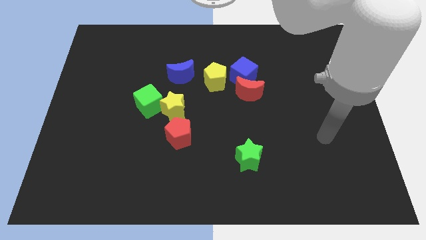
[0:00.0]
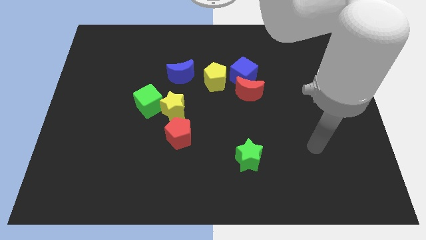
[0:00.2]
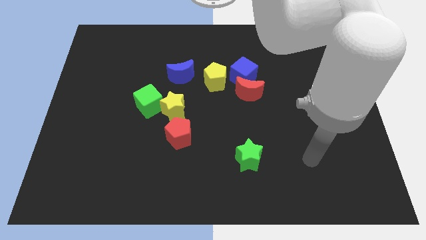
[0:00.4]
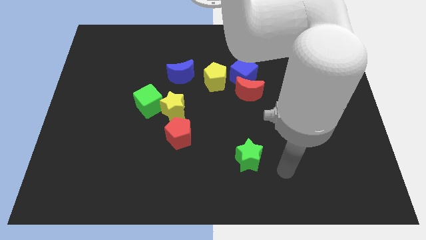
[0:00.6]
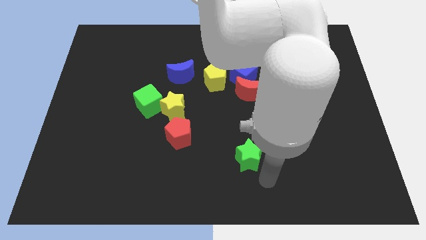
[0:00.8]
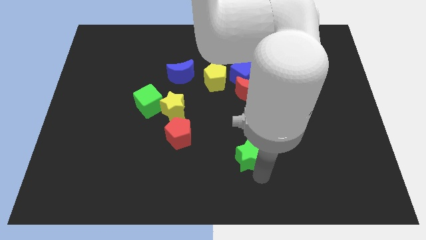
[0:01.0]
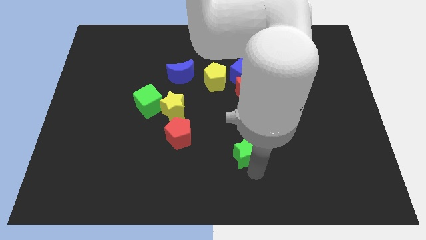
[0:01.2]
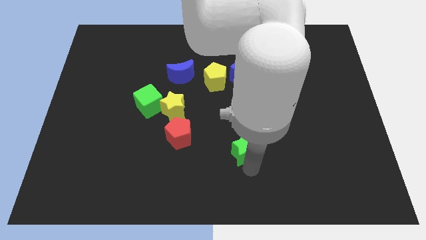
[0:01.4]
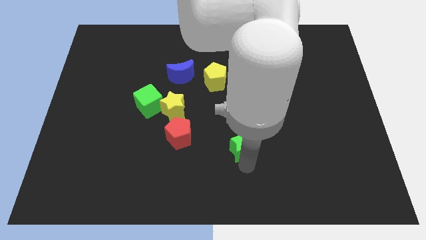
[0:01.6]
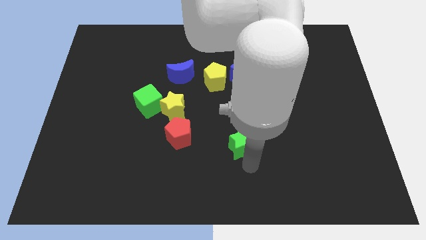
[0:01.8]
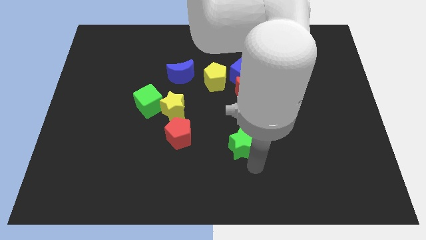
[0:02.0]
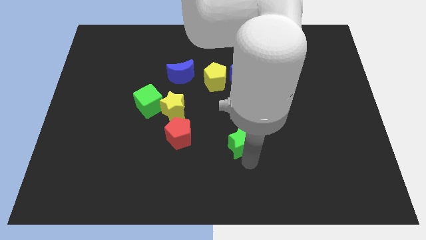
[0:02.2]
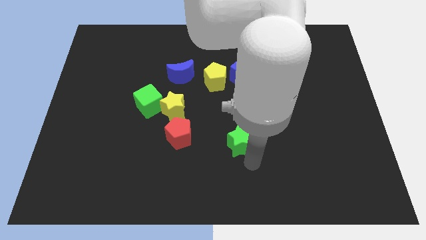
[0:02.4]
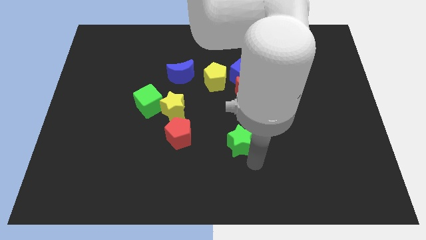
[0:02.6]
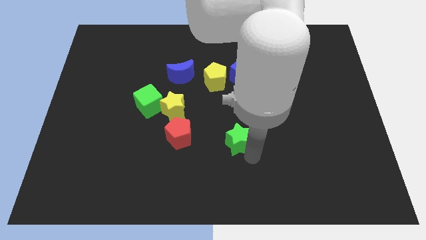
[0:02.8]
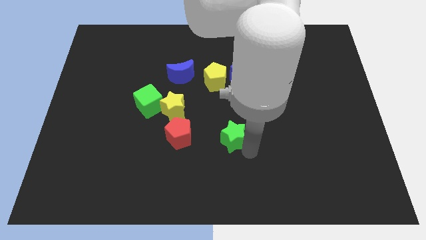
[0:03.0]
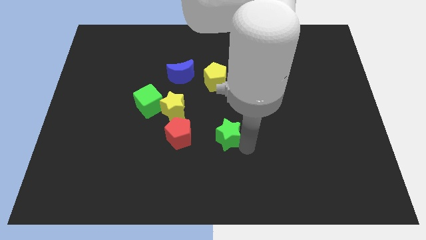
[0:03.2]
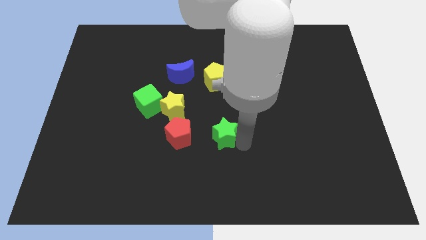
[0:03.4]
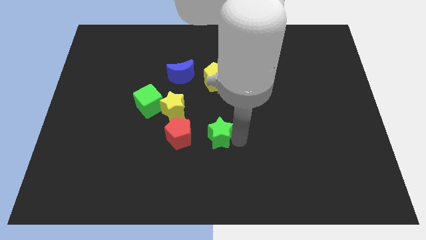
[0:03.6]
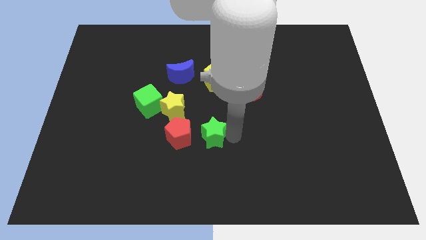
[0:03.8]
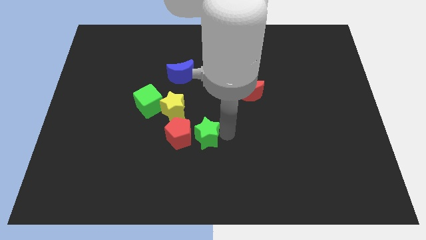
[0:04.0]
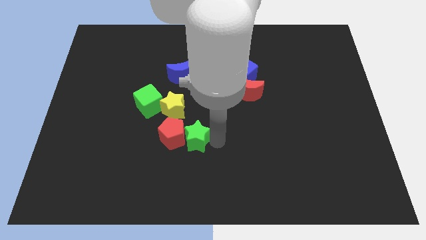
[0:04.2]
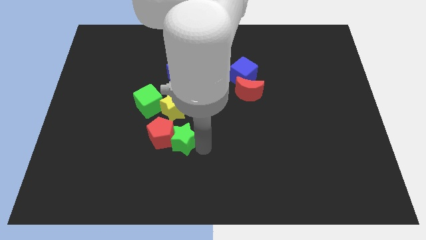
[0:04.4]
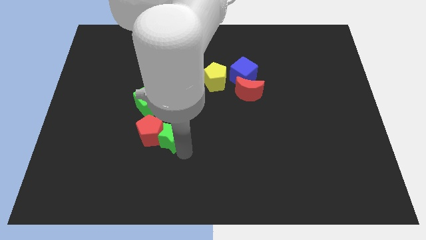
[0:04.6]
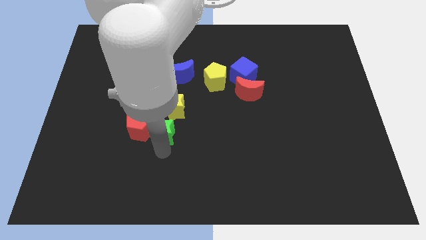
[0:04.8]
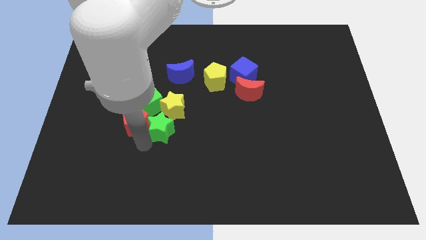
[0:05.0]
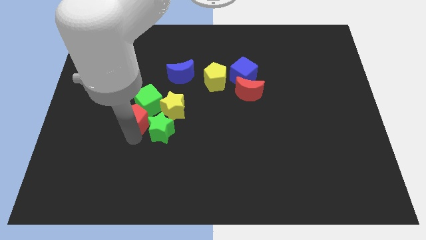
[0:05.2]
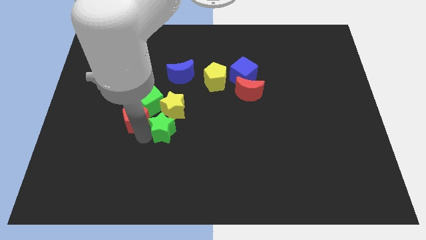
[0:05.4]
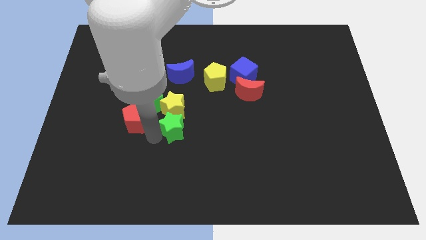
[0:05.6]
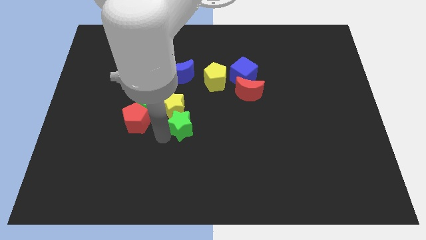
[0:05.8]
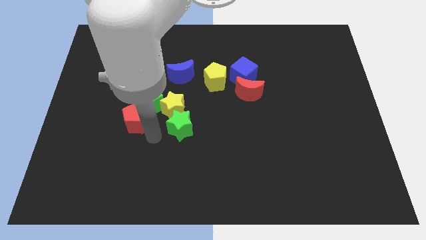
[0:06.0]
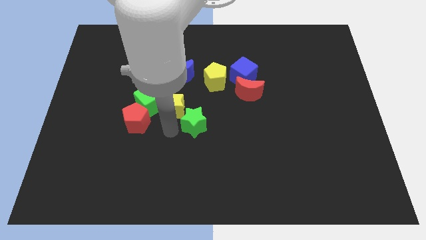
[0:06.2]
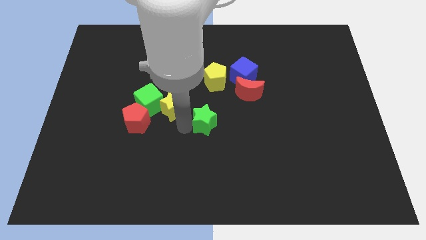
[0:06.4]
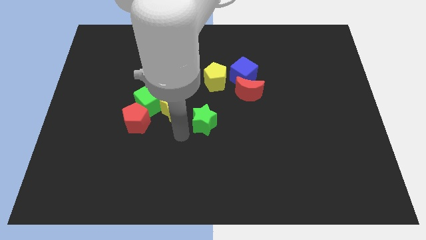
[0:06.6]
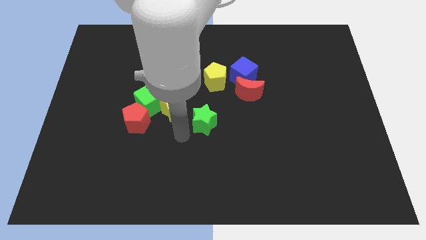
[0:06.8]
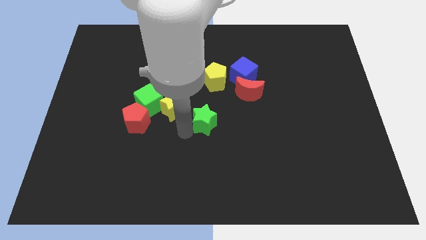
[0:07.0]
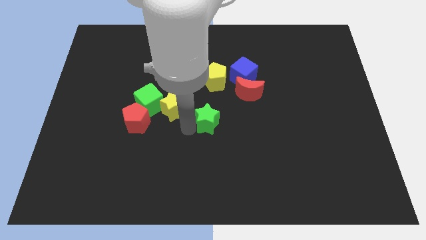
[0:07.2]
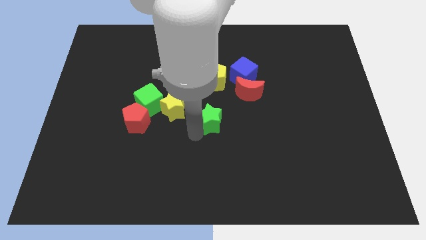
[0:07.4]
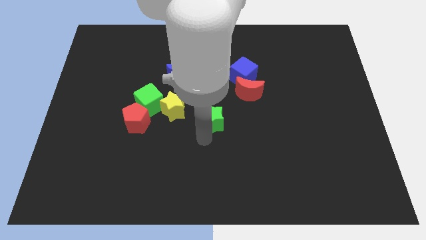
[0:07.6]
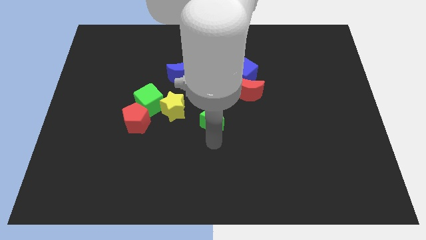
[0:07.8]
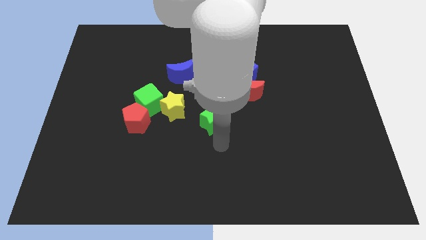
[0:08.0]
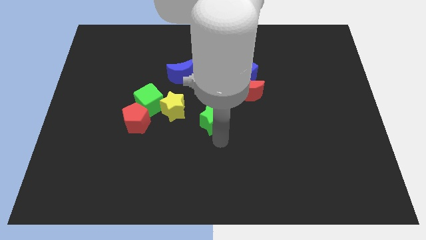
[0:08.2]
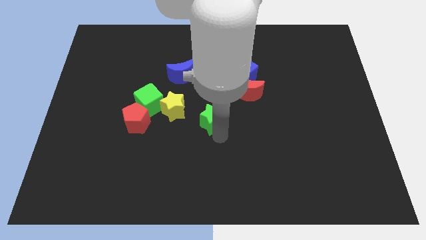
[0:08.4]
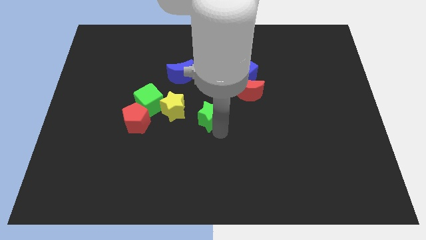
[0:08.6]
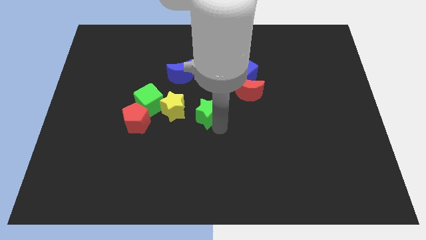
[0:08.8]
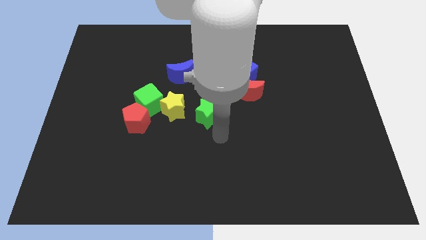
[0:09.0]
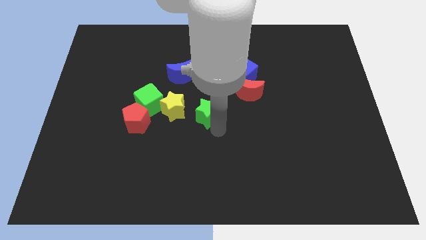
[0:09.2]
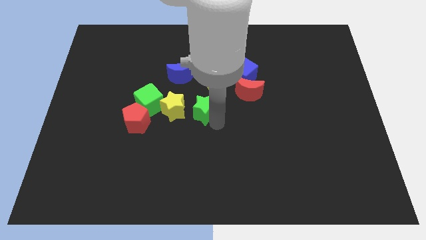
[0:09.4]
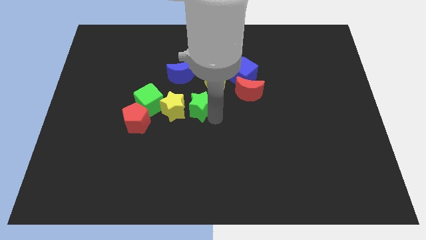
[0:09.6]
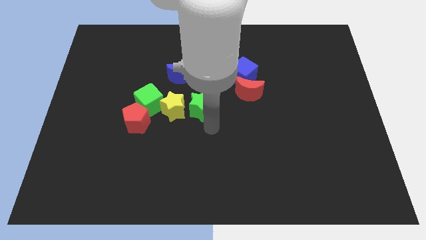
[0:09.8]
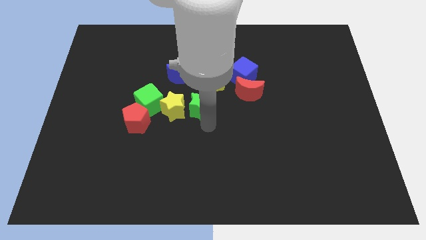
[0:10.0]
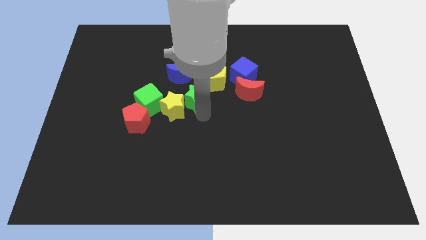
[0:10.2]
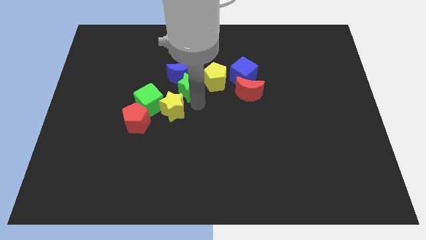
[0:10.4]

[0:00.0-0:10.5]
move the green star close to the blue moon

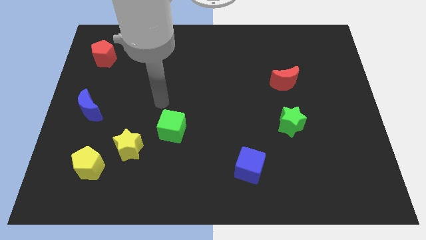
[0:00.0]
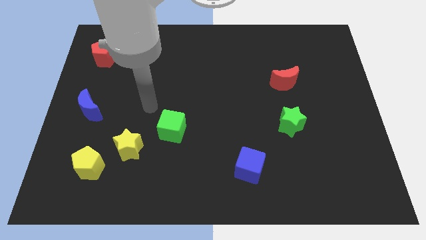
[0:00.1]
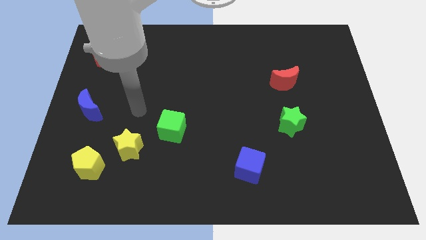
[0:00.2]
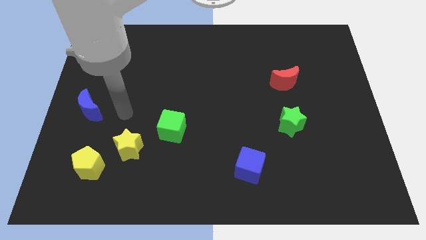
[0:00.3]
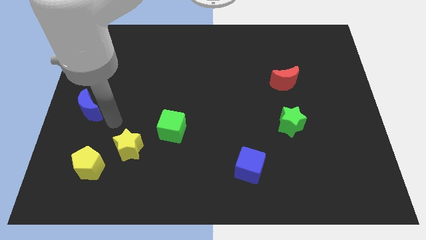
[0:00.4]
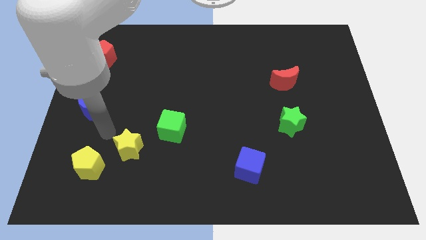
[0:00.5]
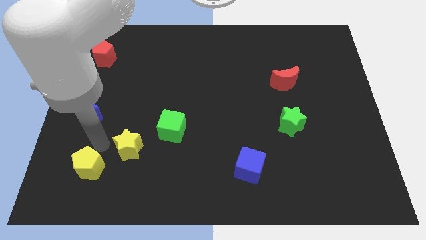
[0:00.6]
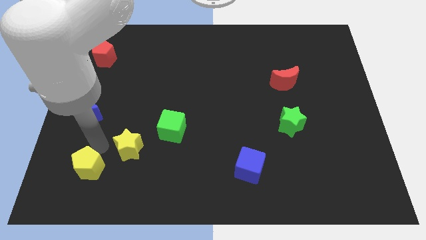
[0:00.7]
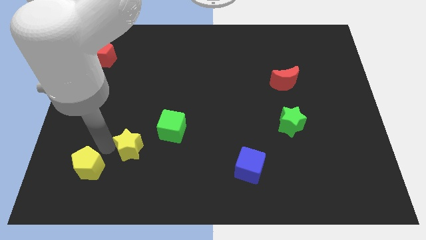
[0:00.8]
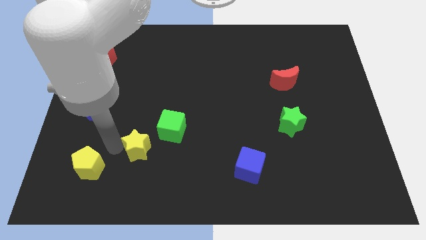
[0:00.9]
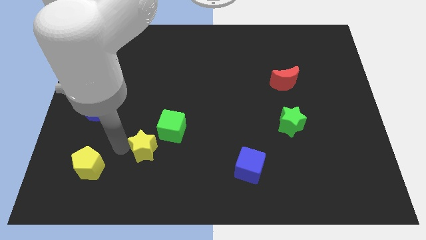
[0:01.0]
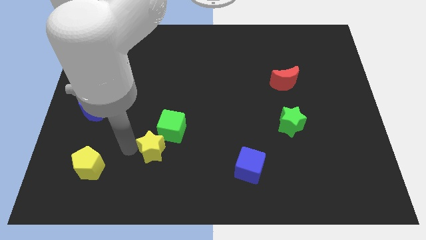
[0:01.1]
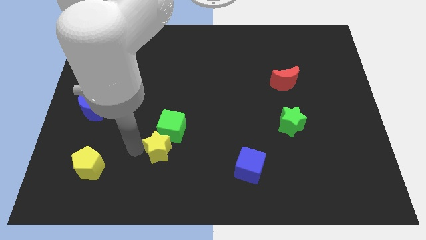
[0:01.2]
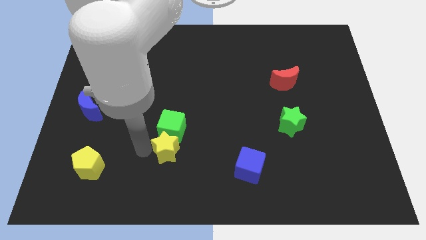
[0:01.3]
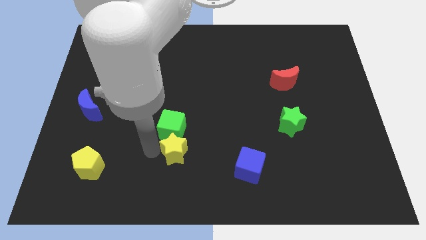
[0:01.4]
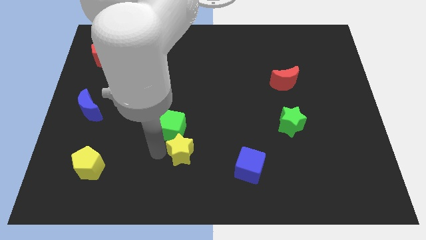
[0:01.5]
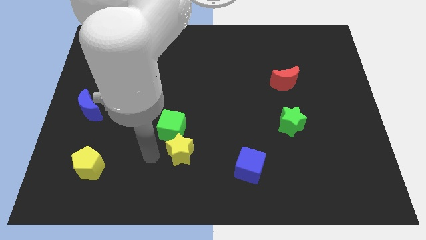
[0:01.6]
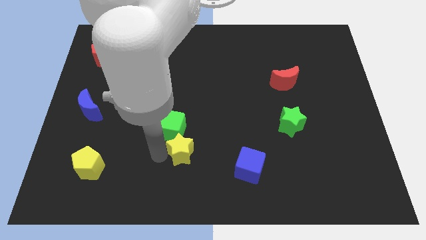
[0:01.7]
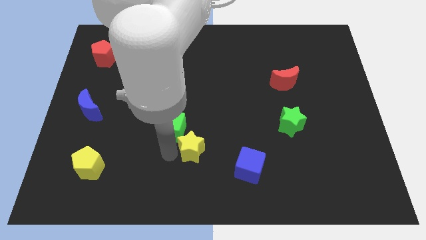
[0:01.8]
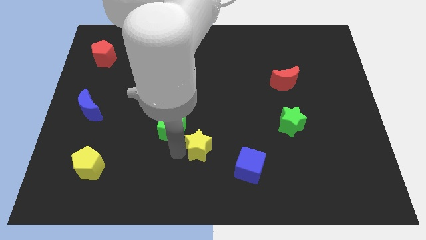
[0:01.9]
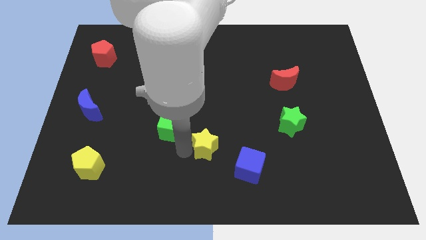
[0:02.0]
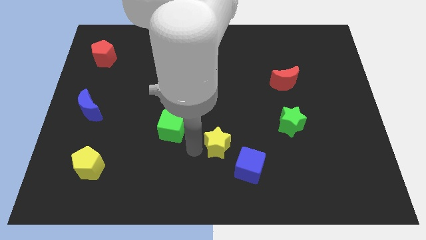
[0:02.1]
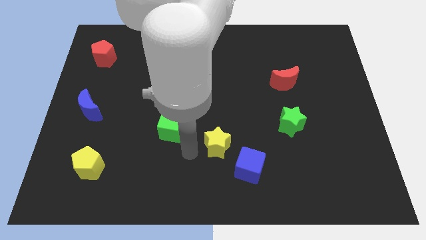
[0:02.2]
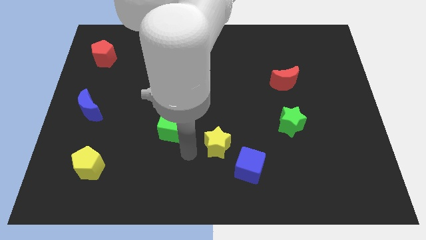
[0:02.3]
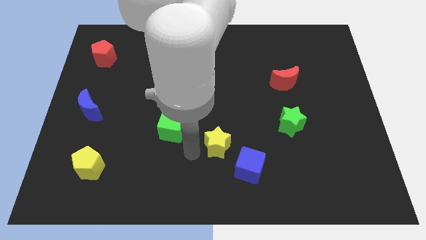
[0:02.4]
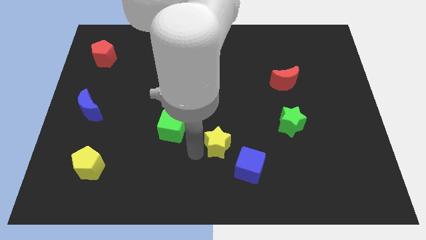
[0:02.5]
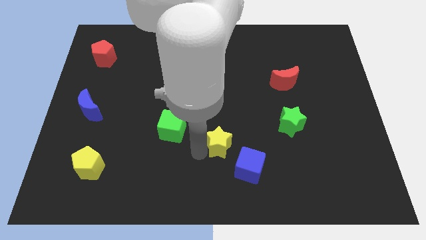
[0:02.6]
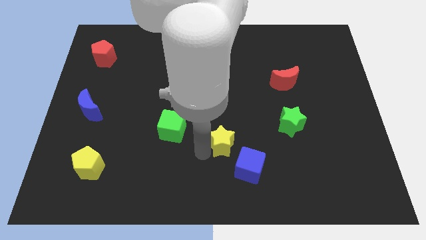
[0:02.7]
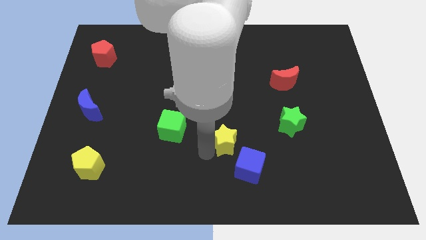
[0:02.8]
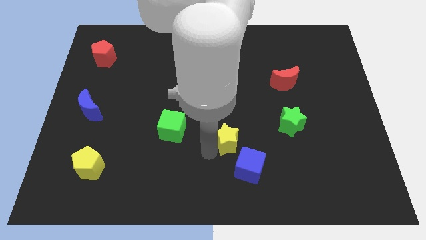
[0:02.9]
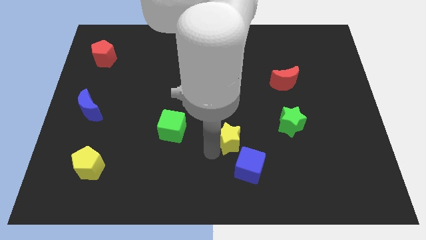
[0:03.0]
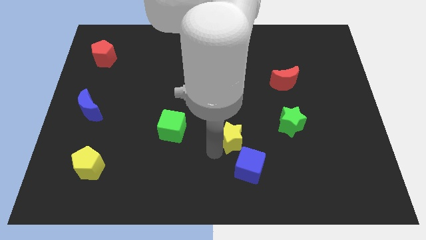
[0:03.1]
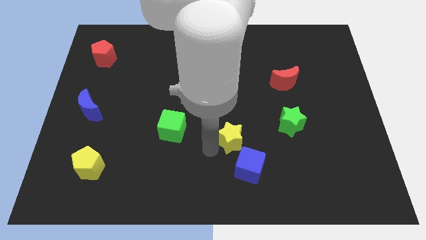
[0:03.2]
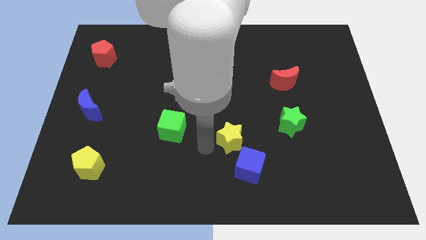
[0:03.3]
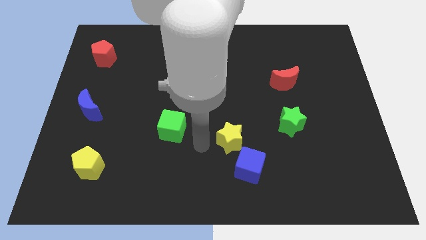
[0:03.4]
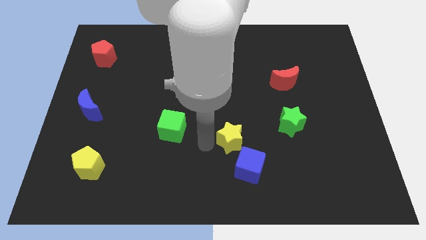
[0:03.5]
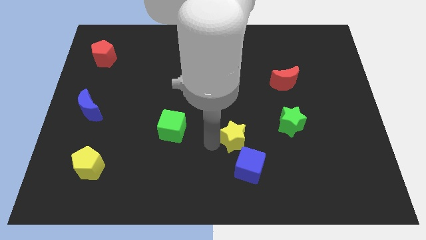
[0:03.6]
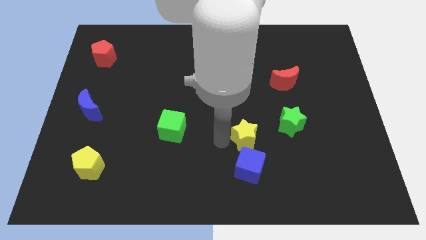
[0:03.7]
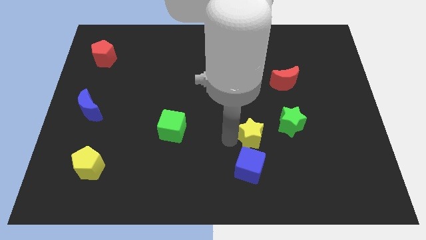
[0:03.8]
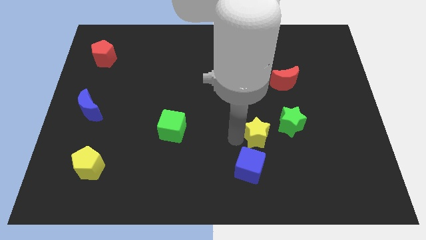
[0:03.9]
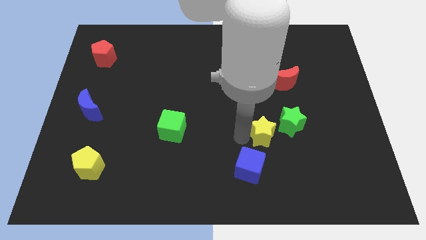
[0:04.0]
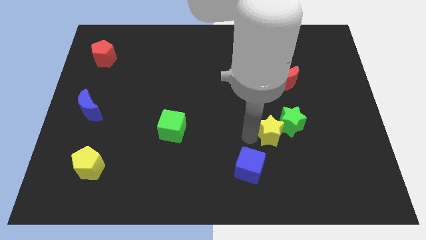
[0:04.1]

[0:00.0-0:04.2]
push the yellow star close to the green star
